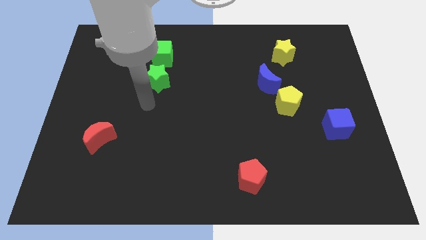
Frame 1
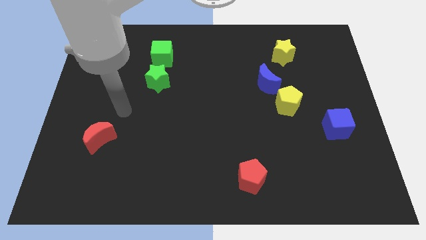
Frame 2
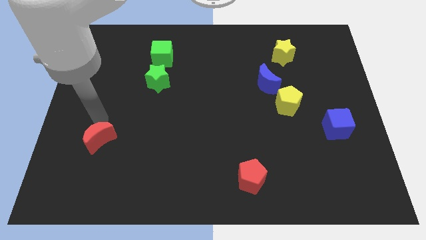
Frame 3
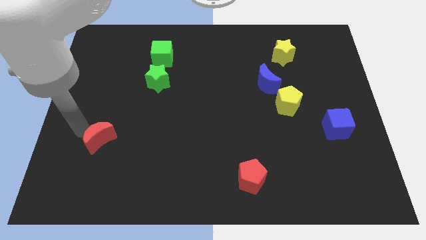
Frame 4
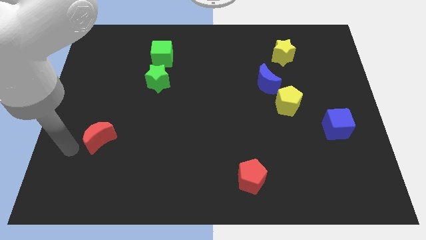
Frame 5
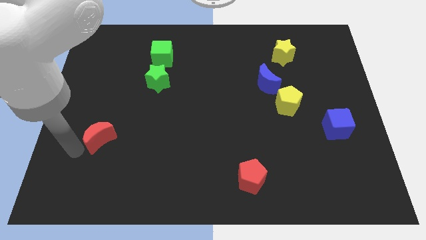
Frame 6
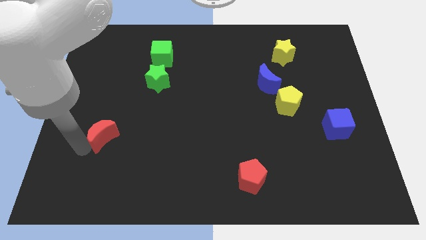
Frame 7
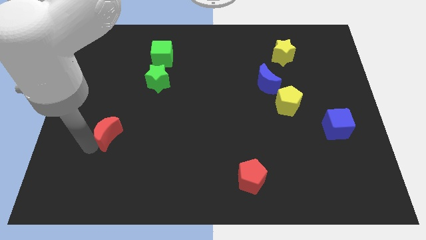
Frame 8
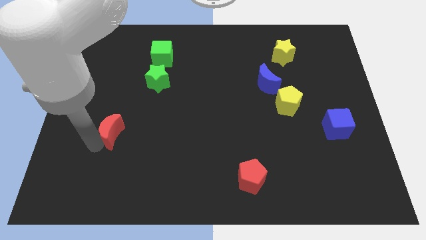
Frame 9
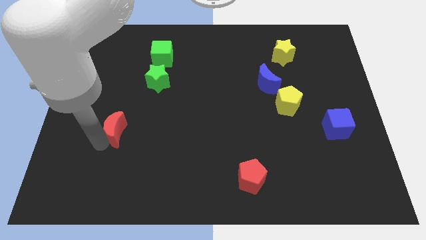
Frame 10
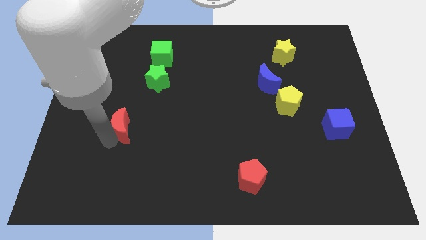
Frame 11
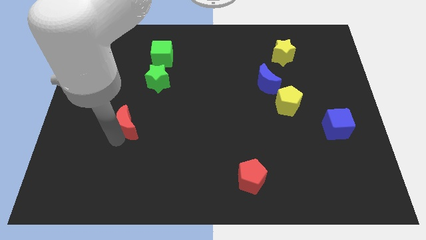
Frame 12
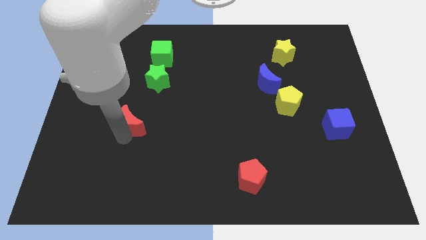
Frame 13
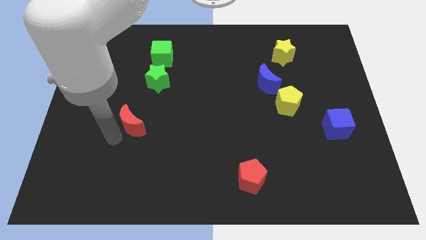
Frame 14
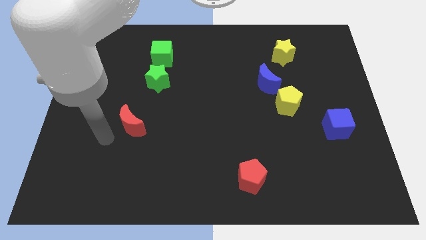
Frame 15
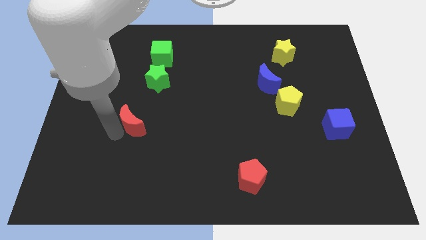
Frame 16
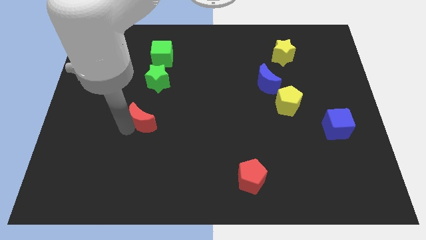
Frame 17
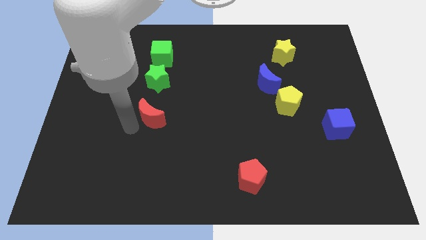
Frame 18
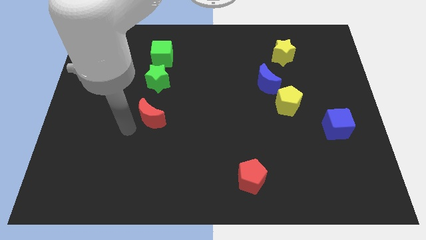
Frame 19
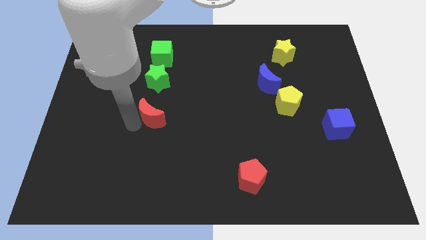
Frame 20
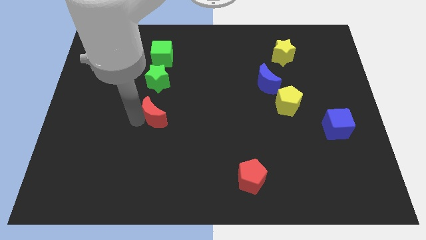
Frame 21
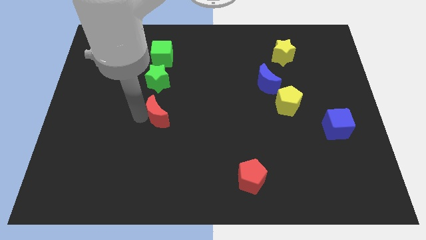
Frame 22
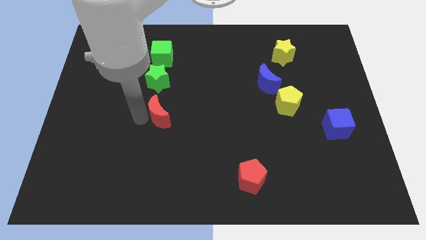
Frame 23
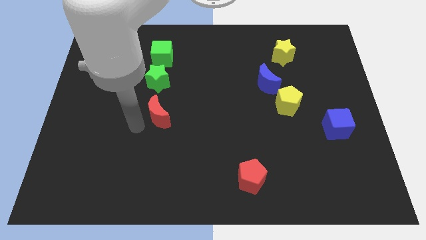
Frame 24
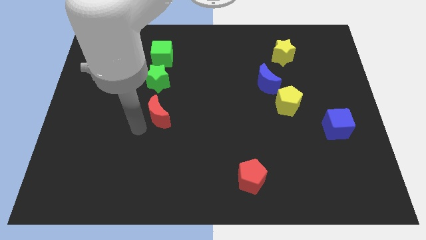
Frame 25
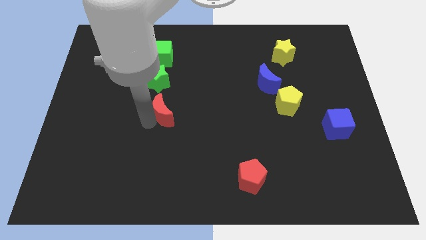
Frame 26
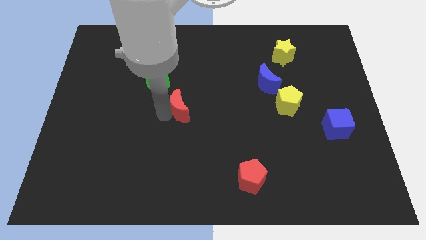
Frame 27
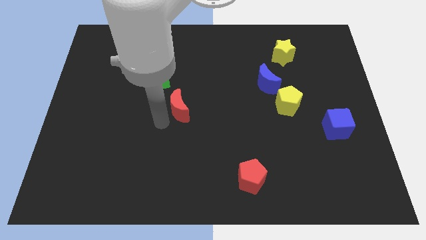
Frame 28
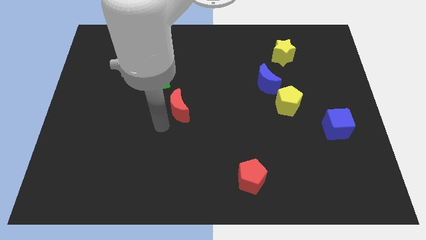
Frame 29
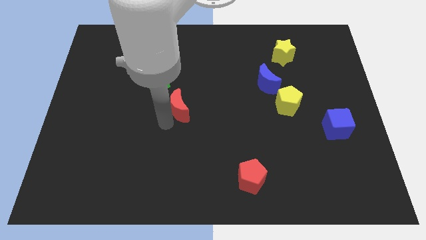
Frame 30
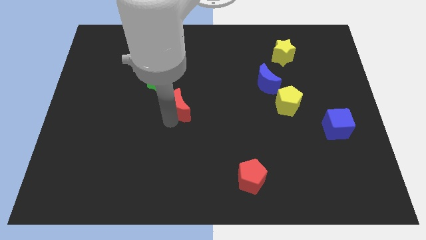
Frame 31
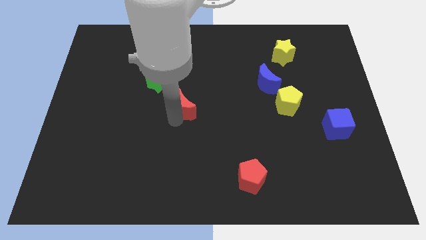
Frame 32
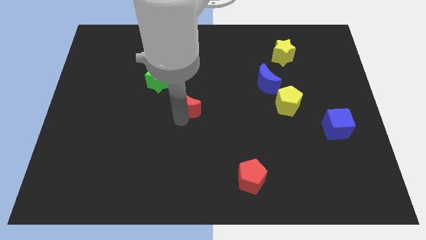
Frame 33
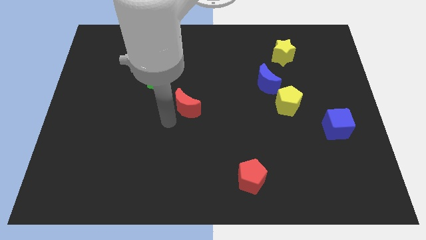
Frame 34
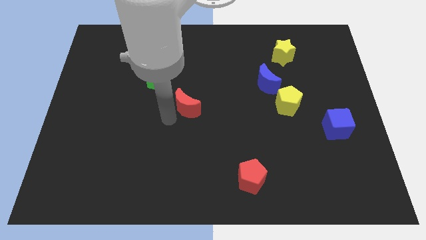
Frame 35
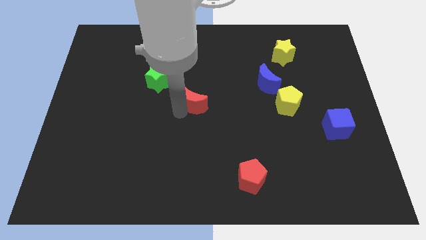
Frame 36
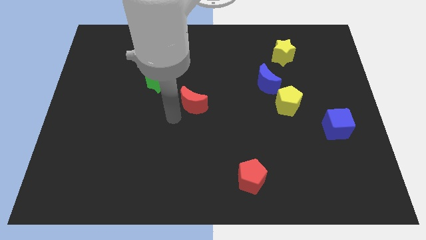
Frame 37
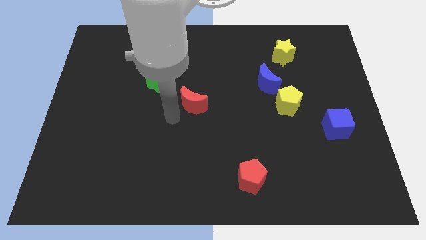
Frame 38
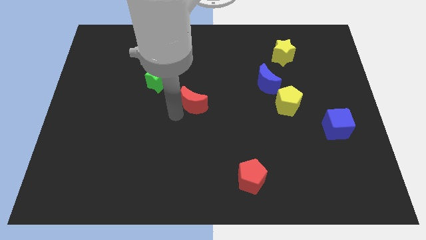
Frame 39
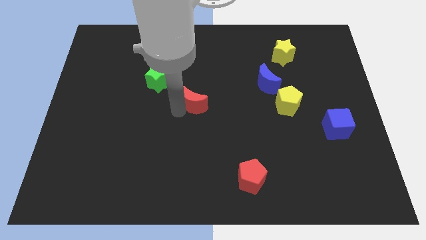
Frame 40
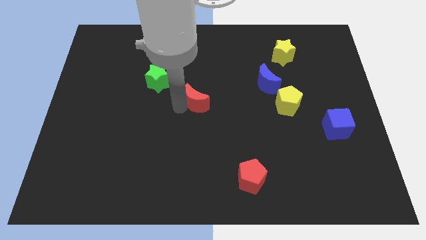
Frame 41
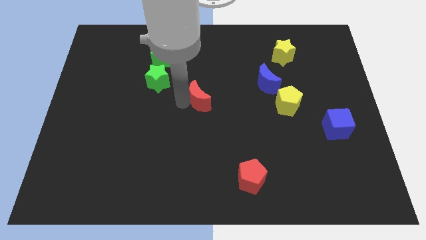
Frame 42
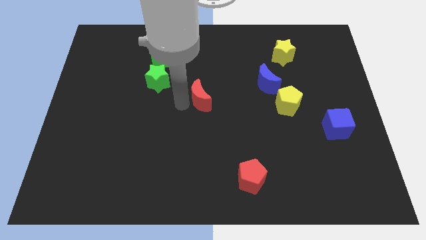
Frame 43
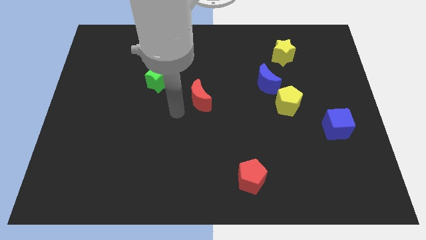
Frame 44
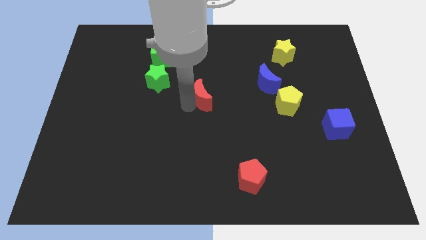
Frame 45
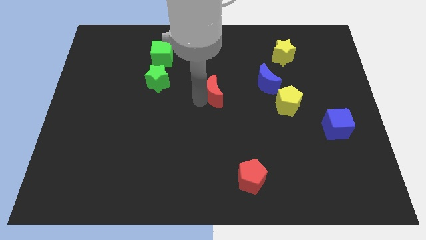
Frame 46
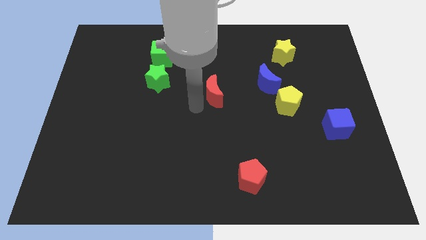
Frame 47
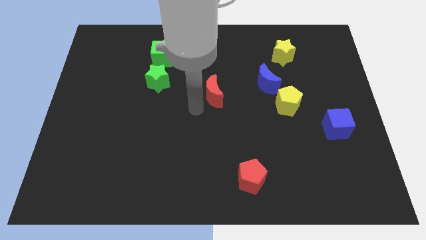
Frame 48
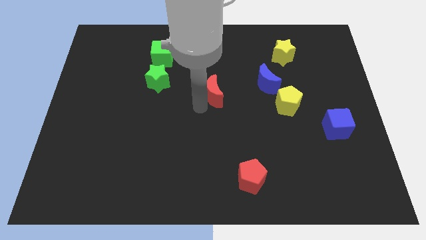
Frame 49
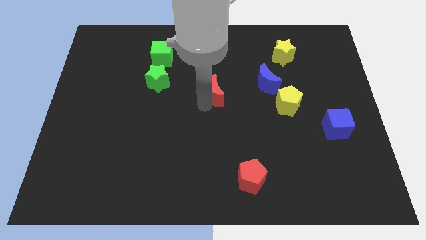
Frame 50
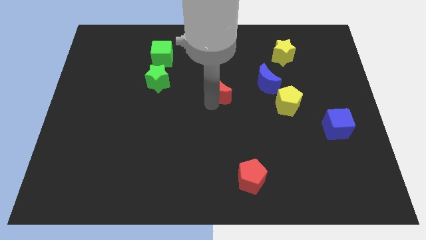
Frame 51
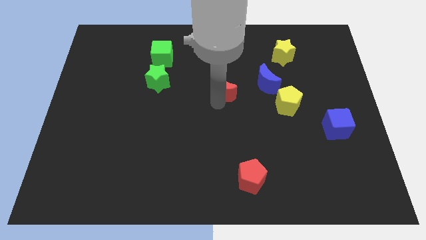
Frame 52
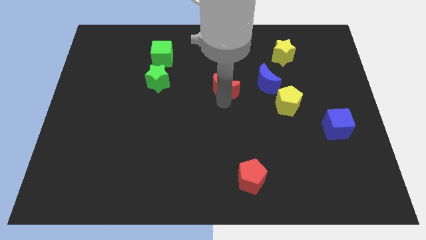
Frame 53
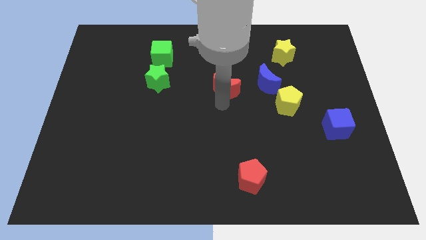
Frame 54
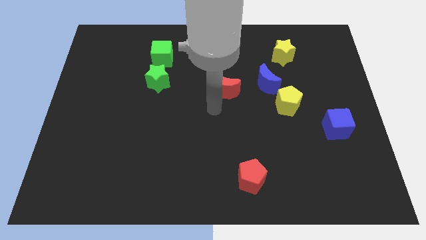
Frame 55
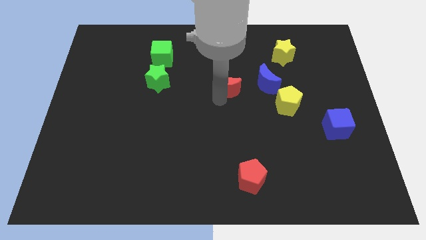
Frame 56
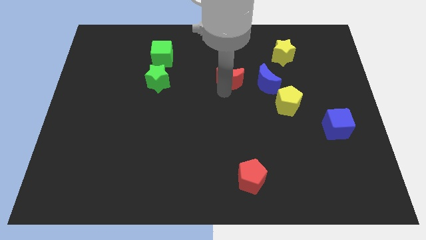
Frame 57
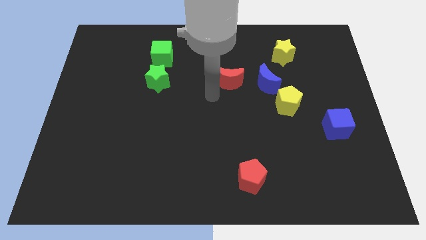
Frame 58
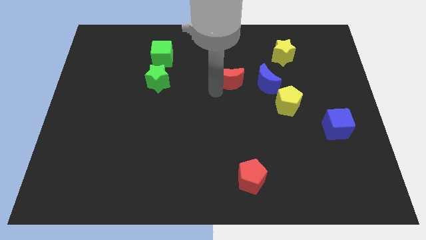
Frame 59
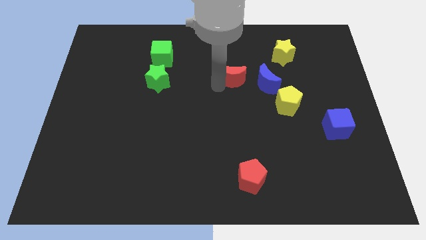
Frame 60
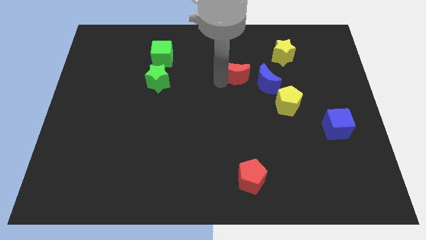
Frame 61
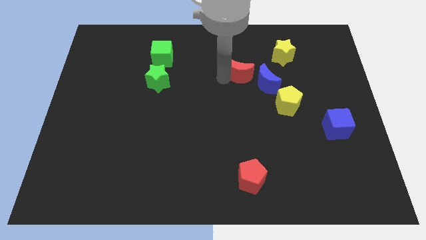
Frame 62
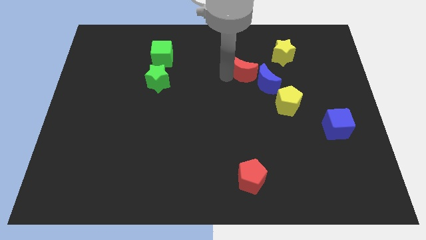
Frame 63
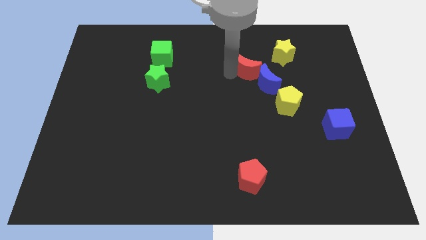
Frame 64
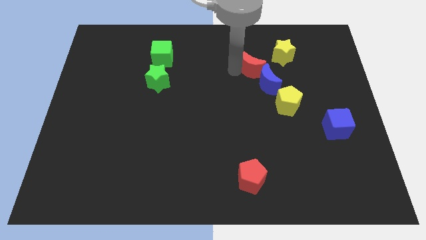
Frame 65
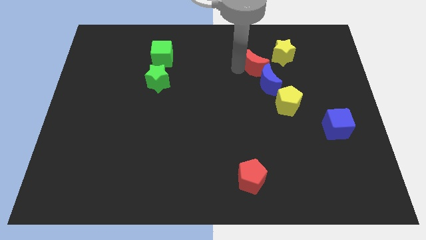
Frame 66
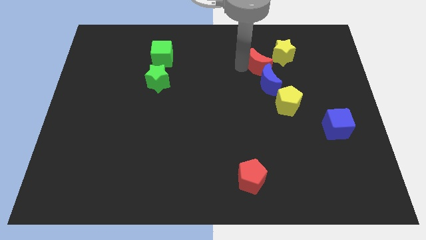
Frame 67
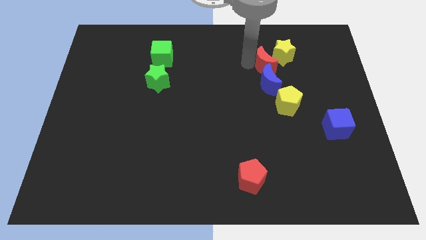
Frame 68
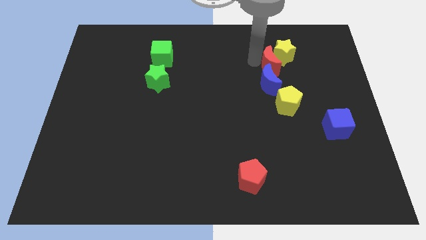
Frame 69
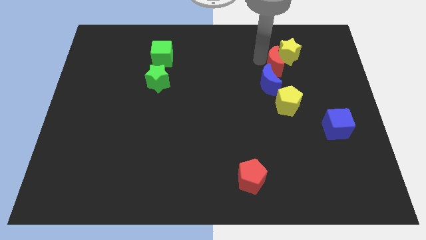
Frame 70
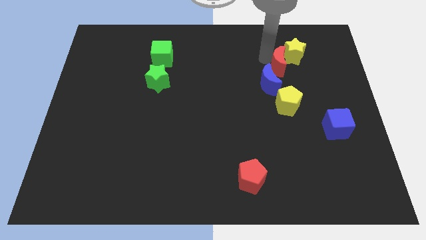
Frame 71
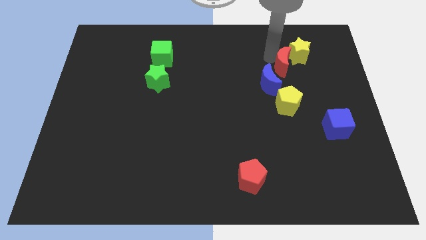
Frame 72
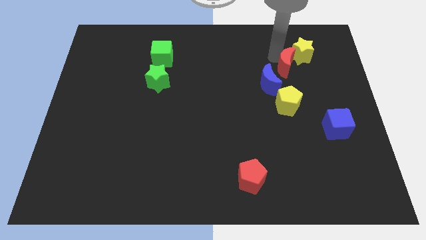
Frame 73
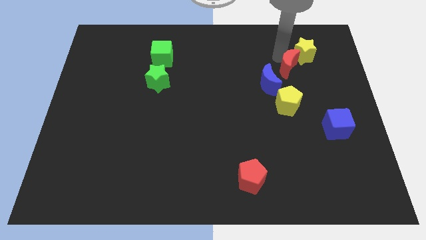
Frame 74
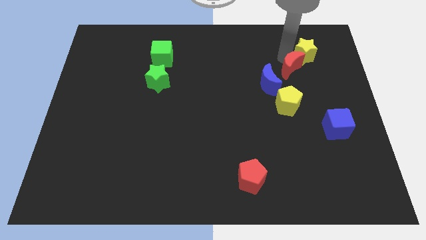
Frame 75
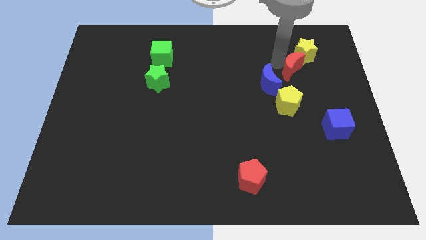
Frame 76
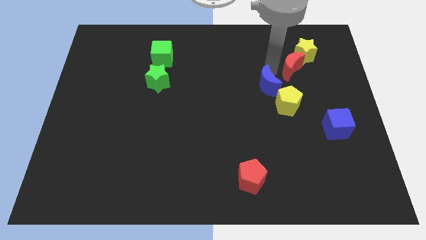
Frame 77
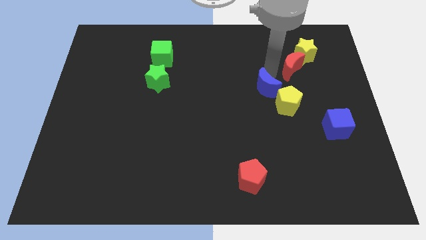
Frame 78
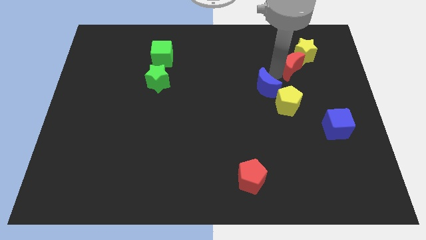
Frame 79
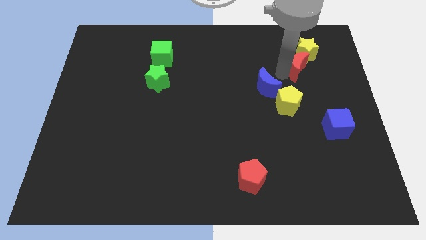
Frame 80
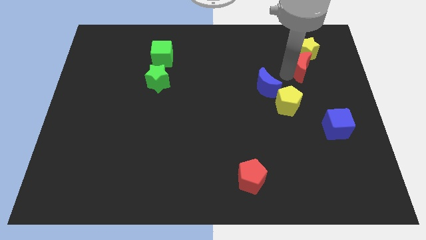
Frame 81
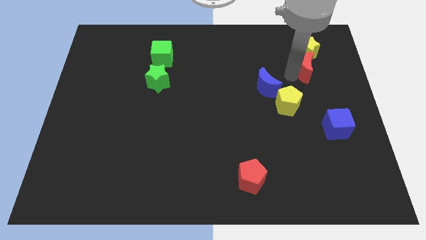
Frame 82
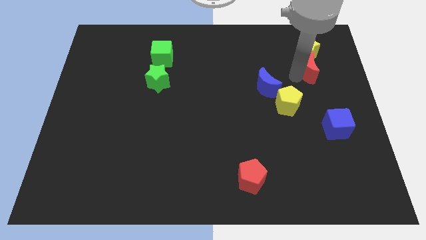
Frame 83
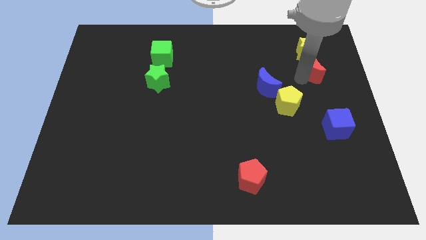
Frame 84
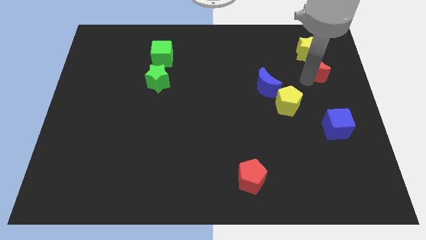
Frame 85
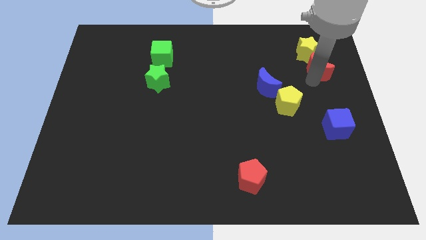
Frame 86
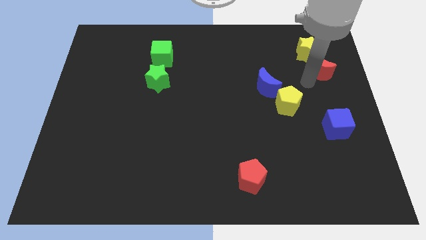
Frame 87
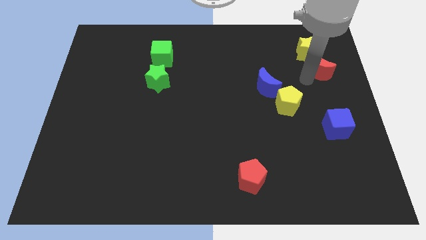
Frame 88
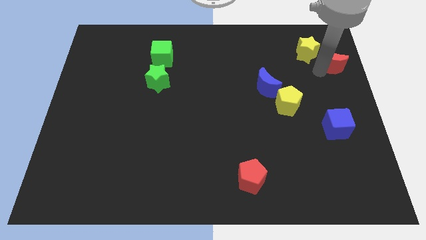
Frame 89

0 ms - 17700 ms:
put the red moon to the right of the yellow star
